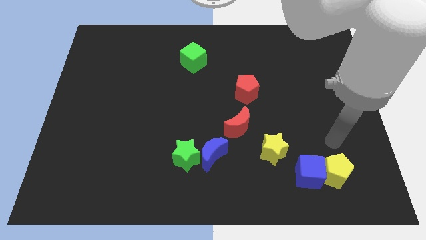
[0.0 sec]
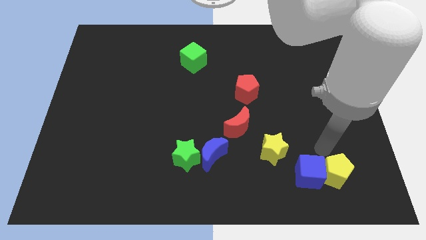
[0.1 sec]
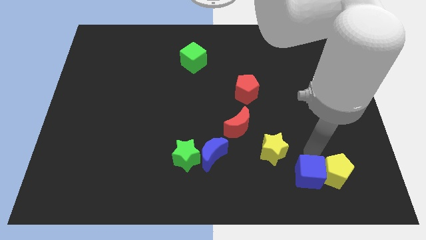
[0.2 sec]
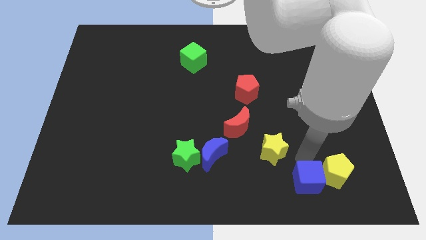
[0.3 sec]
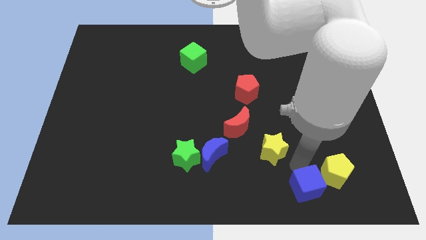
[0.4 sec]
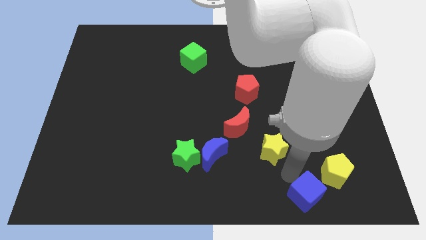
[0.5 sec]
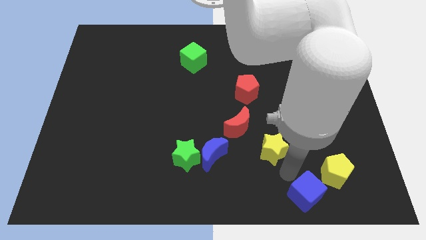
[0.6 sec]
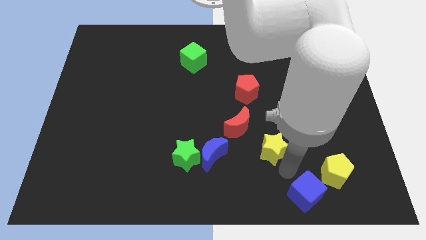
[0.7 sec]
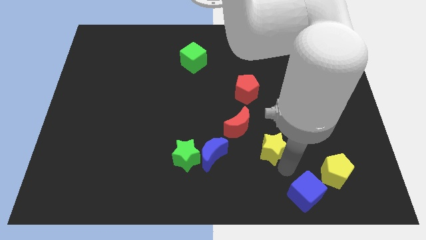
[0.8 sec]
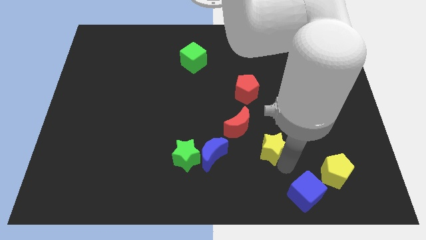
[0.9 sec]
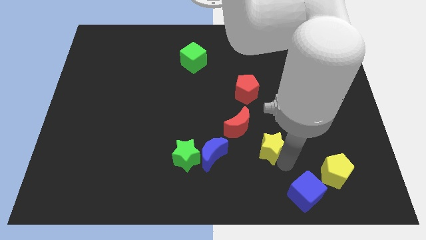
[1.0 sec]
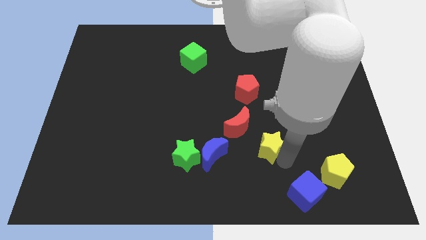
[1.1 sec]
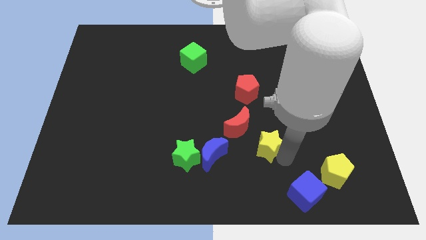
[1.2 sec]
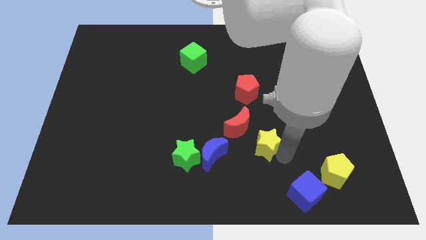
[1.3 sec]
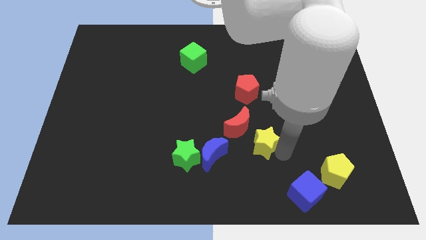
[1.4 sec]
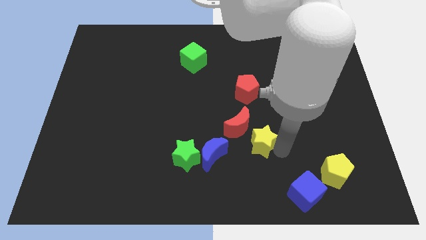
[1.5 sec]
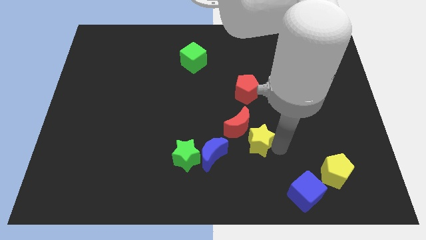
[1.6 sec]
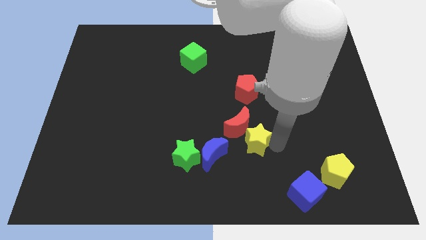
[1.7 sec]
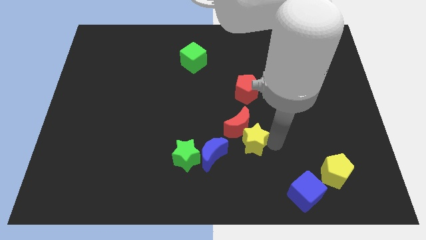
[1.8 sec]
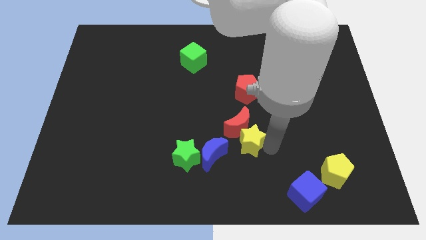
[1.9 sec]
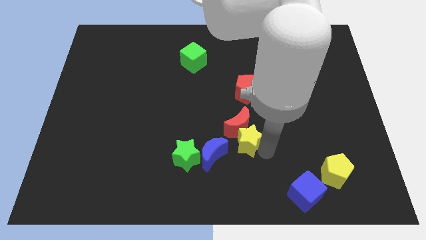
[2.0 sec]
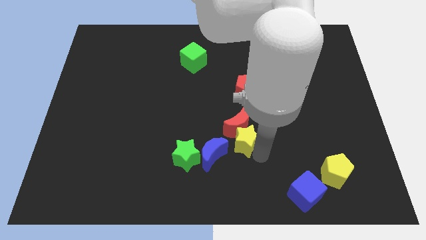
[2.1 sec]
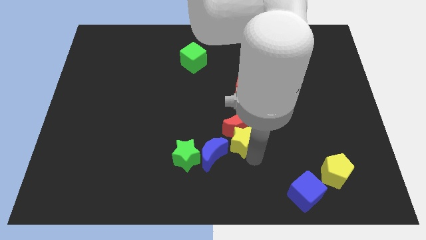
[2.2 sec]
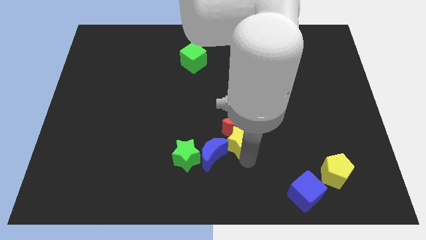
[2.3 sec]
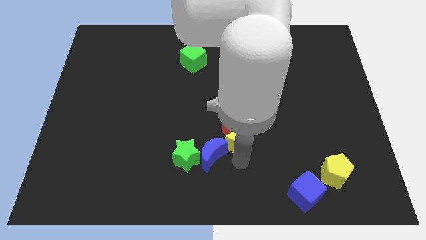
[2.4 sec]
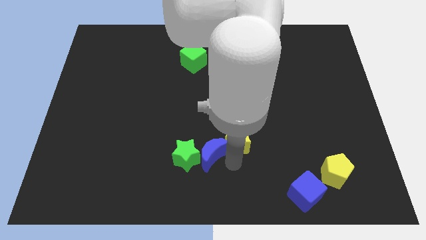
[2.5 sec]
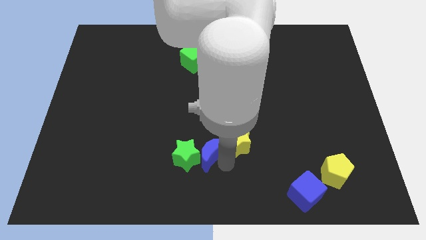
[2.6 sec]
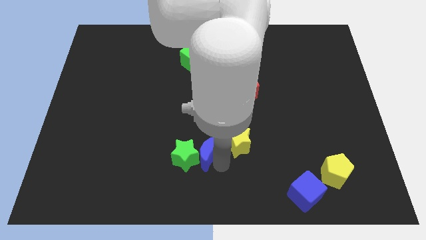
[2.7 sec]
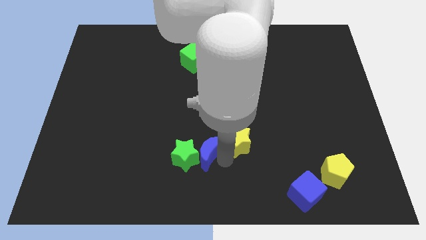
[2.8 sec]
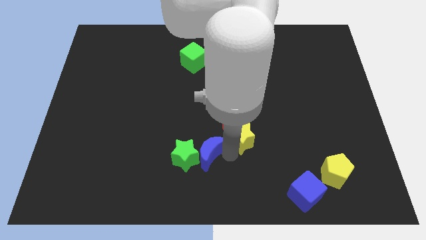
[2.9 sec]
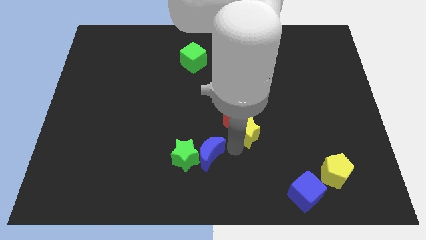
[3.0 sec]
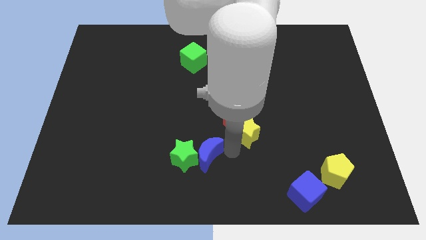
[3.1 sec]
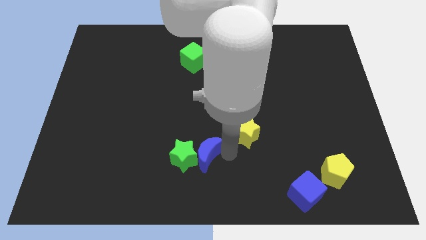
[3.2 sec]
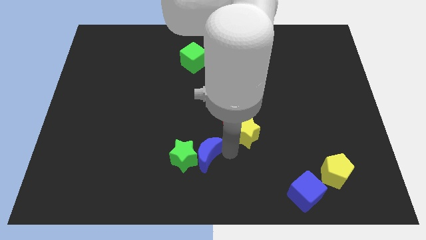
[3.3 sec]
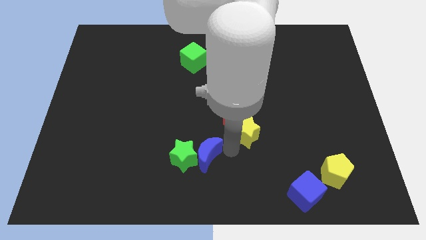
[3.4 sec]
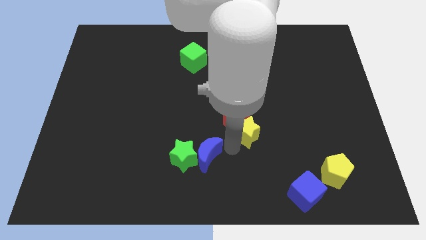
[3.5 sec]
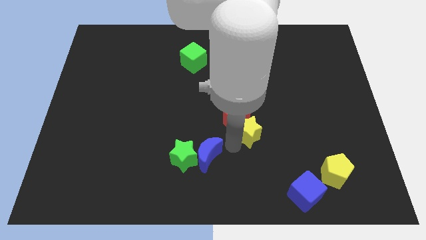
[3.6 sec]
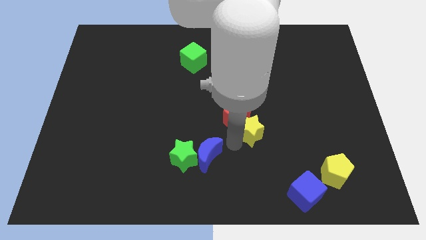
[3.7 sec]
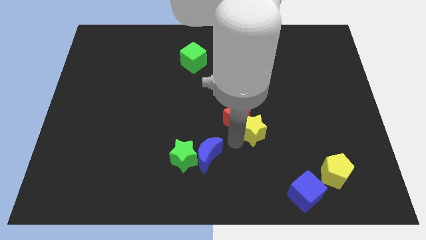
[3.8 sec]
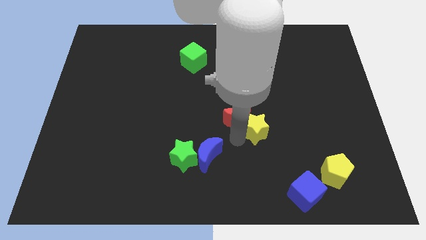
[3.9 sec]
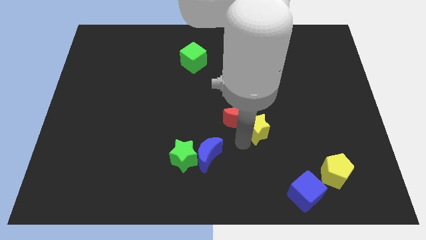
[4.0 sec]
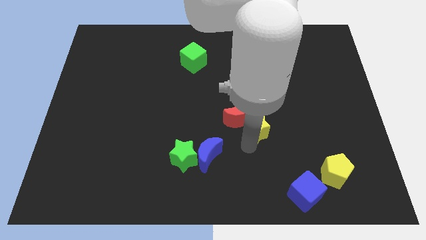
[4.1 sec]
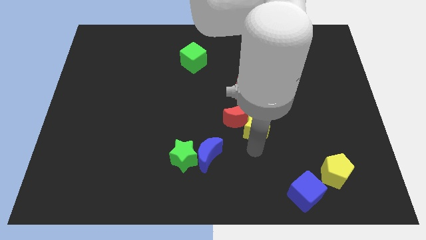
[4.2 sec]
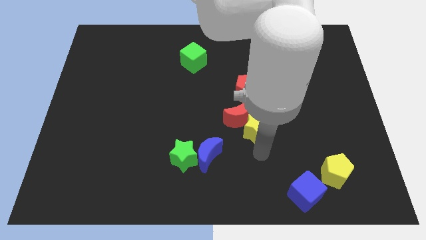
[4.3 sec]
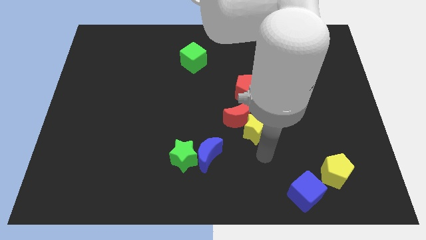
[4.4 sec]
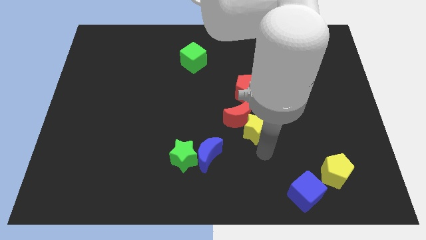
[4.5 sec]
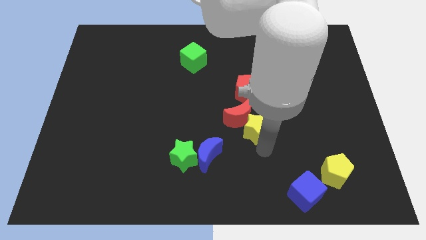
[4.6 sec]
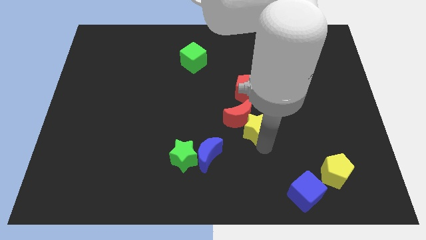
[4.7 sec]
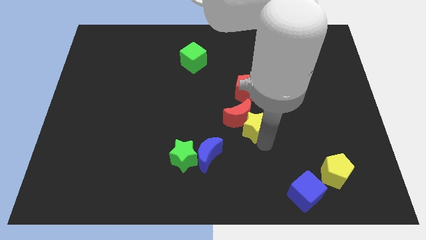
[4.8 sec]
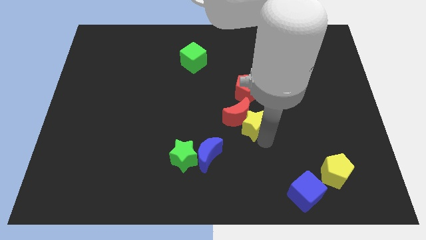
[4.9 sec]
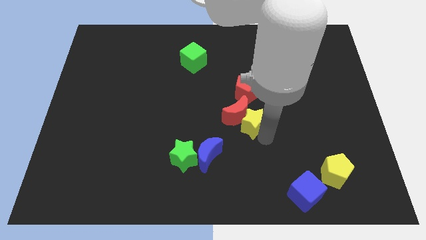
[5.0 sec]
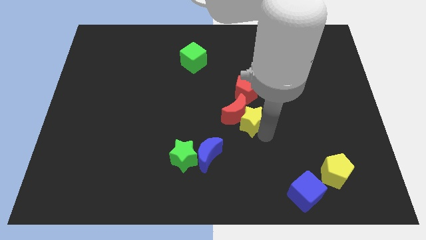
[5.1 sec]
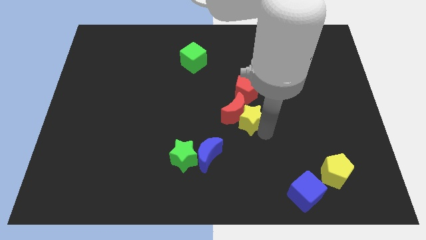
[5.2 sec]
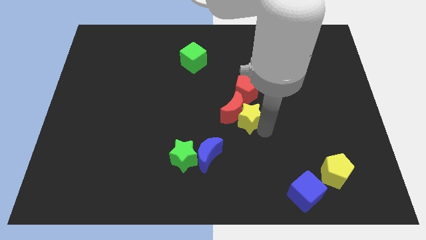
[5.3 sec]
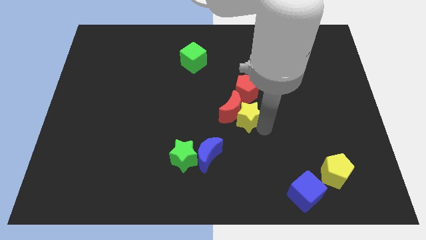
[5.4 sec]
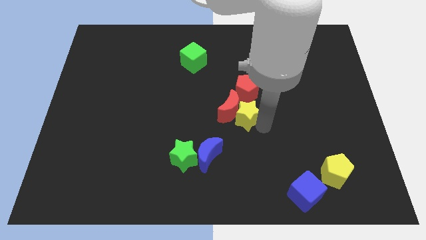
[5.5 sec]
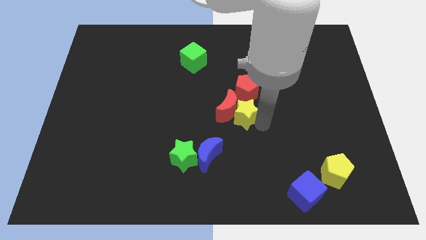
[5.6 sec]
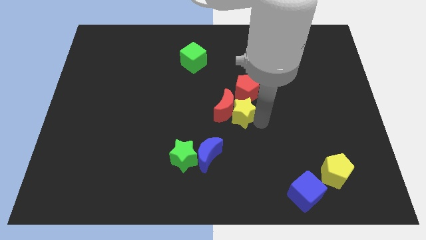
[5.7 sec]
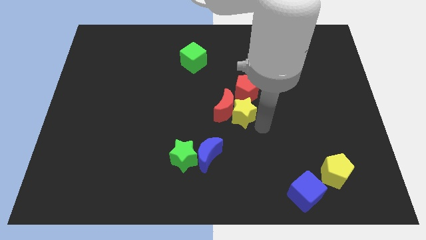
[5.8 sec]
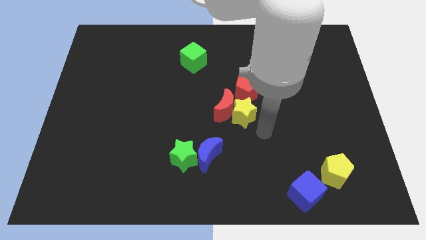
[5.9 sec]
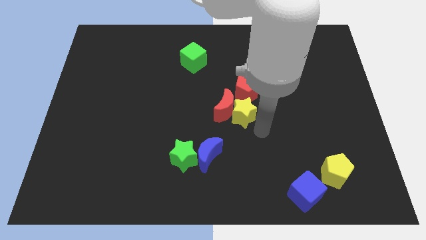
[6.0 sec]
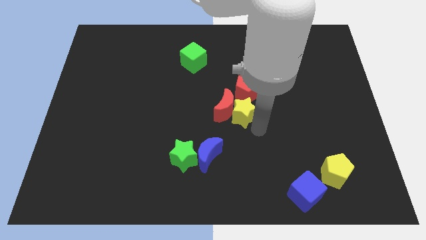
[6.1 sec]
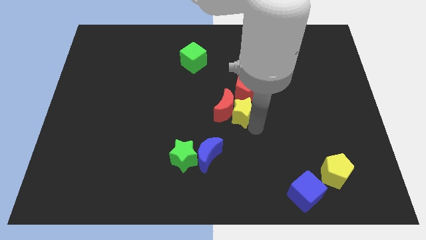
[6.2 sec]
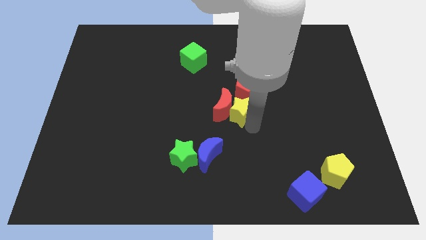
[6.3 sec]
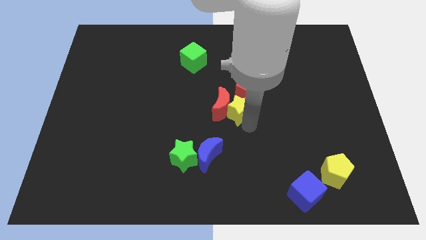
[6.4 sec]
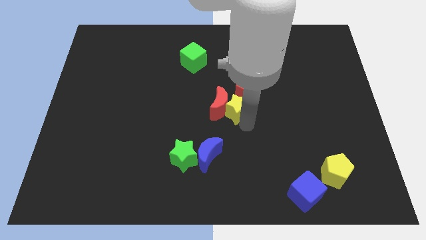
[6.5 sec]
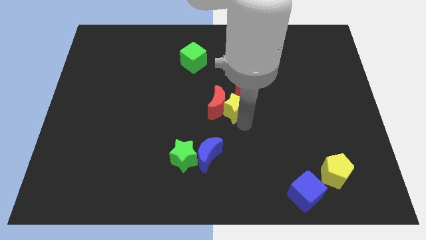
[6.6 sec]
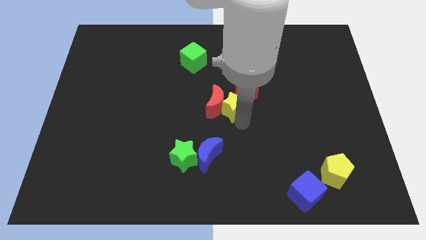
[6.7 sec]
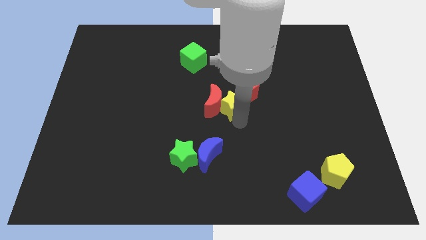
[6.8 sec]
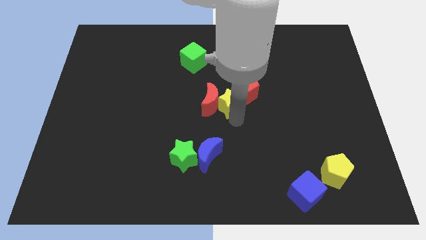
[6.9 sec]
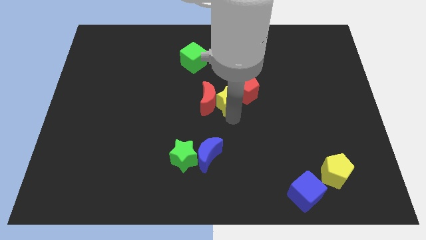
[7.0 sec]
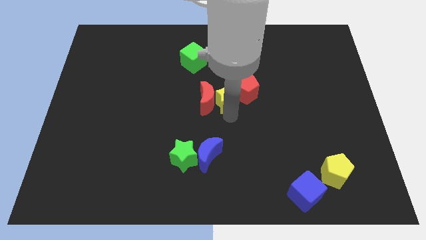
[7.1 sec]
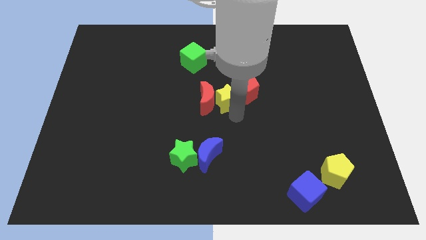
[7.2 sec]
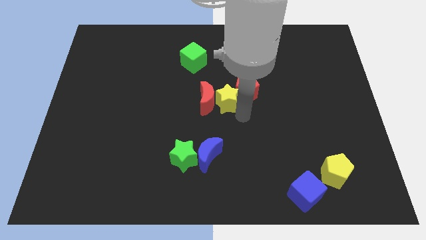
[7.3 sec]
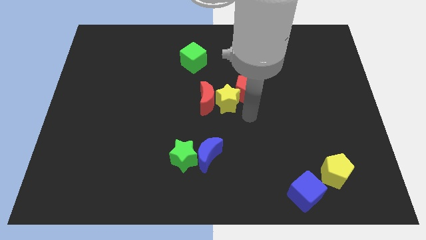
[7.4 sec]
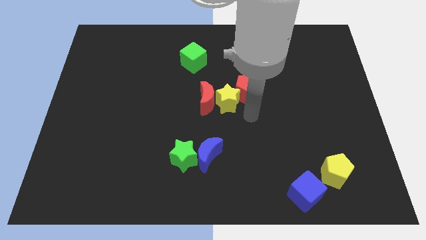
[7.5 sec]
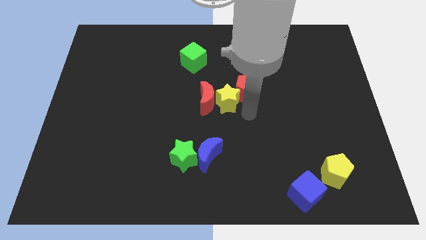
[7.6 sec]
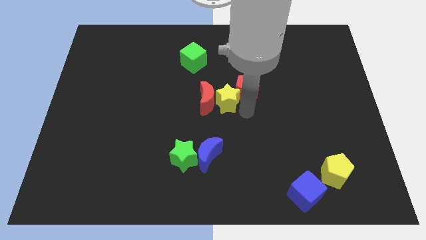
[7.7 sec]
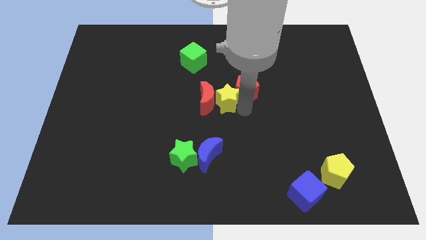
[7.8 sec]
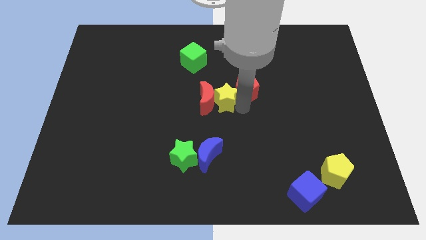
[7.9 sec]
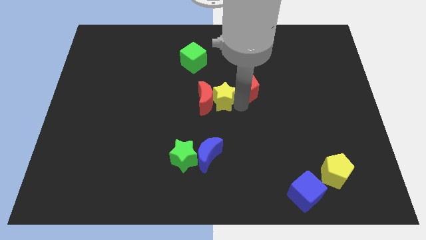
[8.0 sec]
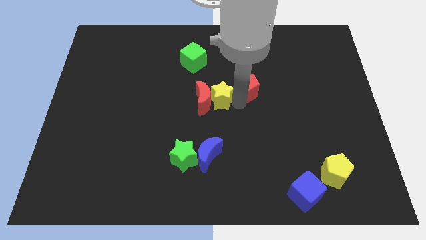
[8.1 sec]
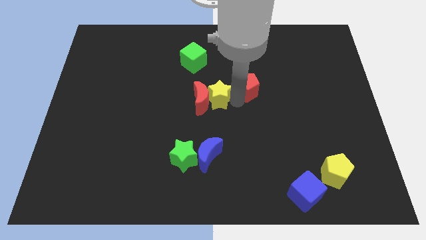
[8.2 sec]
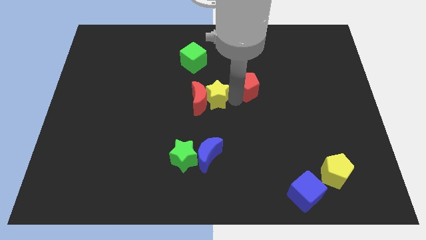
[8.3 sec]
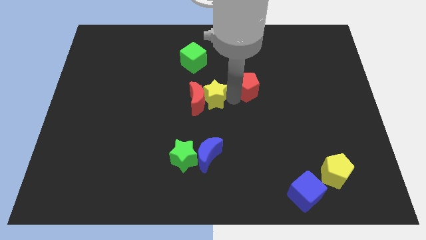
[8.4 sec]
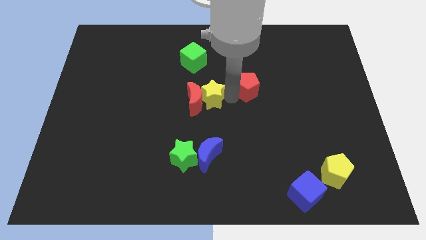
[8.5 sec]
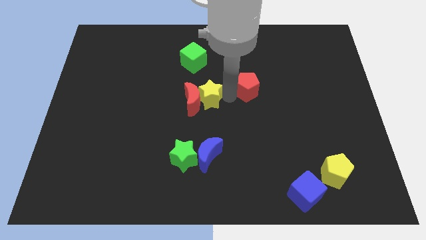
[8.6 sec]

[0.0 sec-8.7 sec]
move the yellow star up and to the left diagonally
